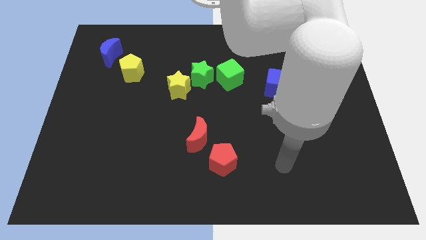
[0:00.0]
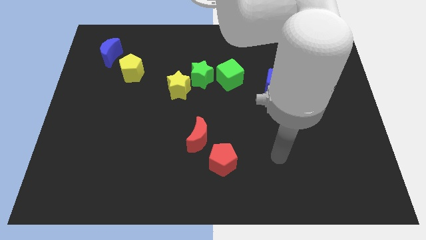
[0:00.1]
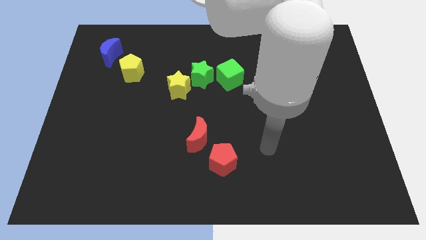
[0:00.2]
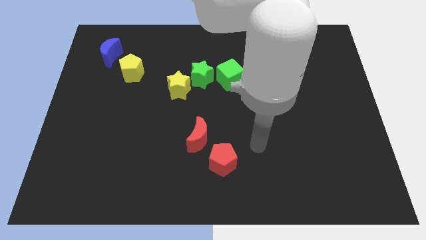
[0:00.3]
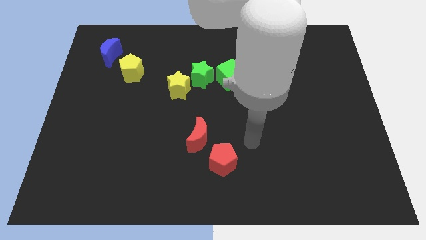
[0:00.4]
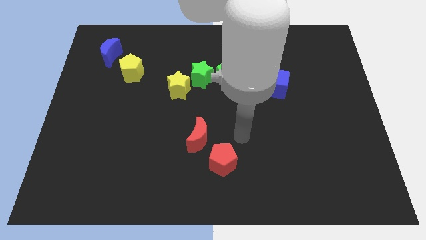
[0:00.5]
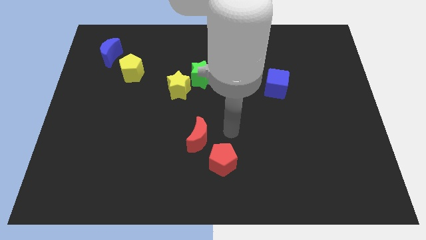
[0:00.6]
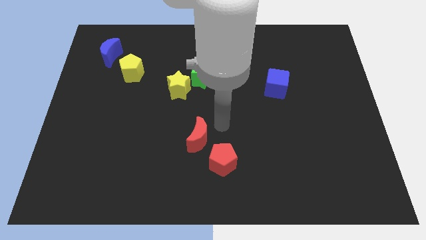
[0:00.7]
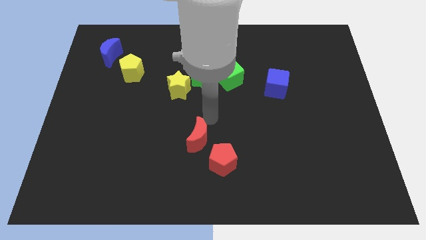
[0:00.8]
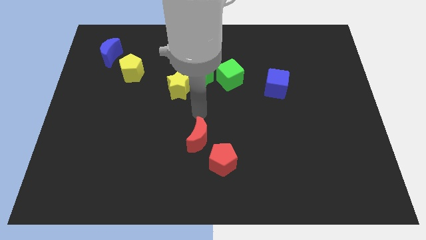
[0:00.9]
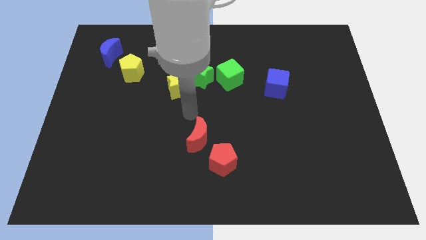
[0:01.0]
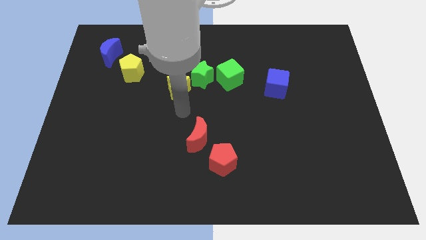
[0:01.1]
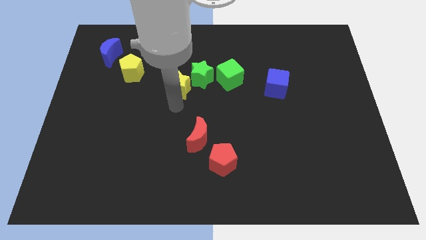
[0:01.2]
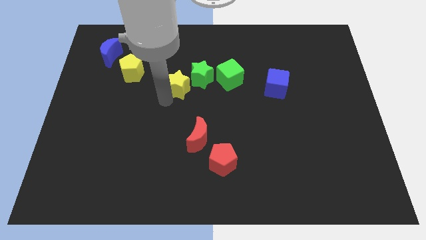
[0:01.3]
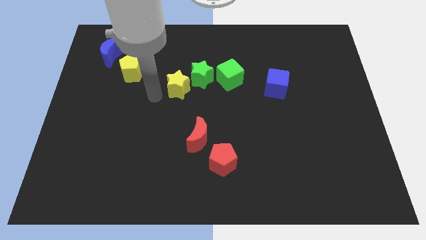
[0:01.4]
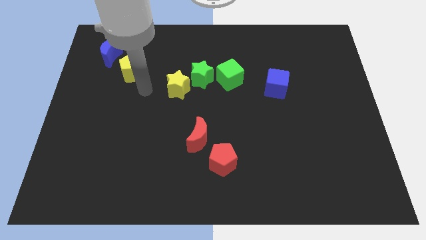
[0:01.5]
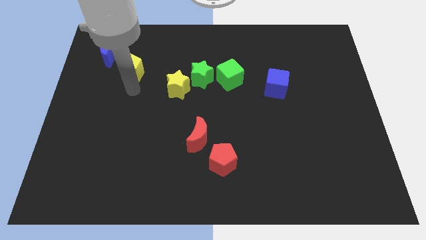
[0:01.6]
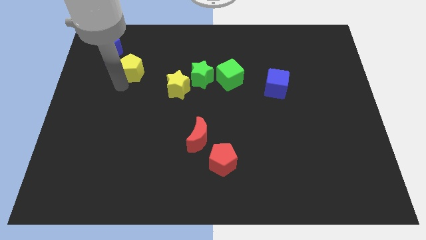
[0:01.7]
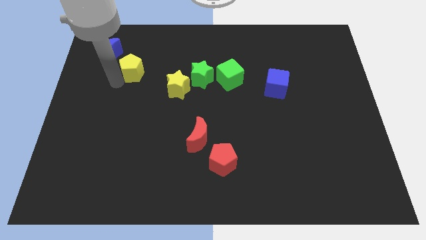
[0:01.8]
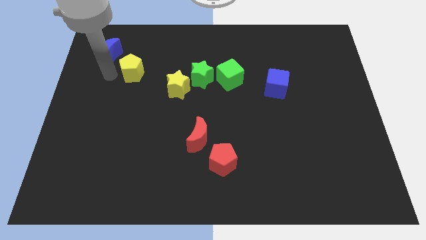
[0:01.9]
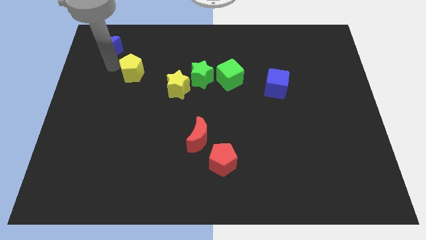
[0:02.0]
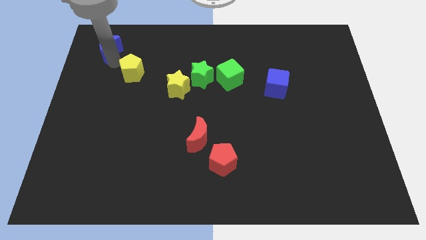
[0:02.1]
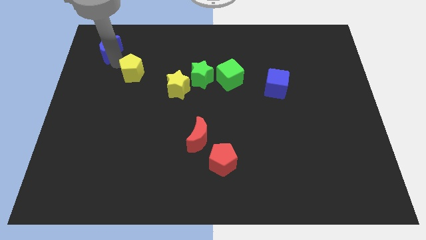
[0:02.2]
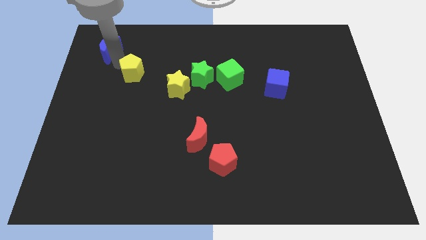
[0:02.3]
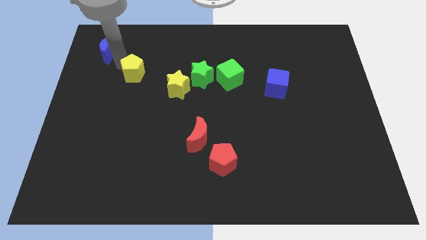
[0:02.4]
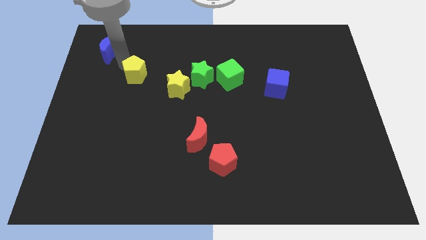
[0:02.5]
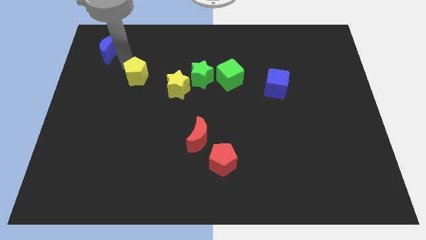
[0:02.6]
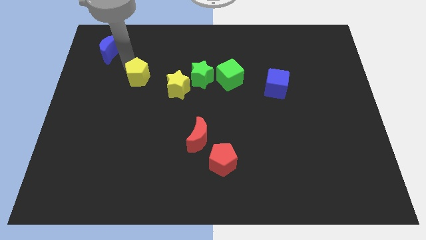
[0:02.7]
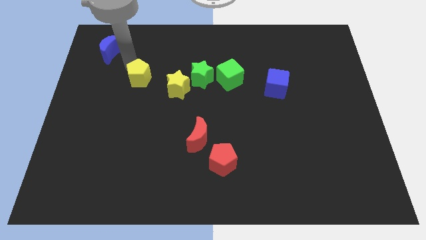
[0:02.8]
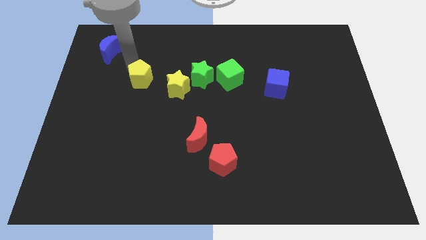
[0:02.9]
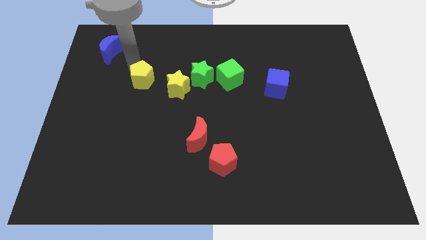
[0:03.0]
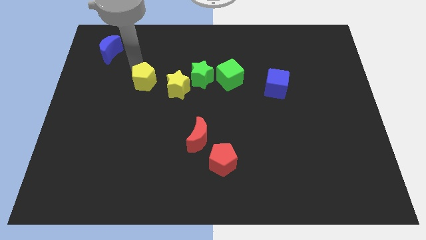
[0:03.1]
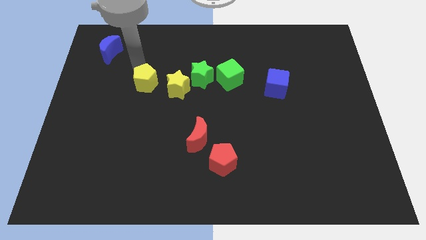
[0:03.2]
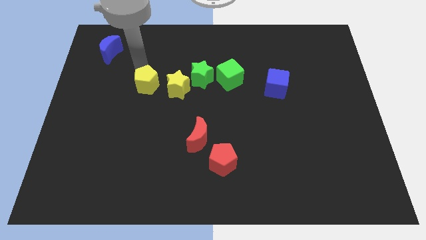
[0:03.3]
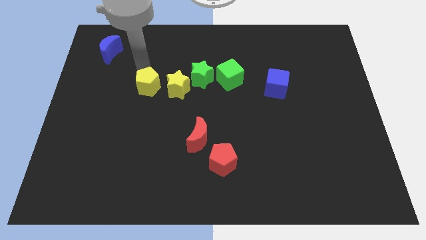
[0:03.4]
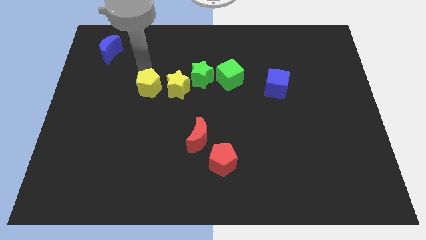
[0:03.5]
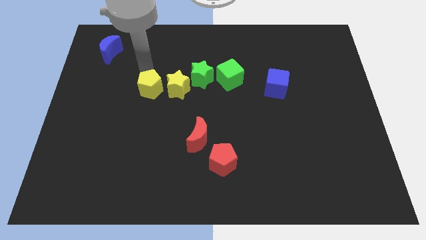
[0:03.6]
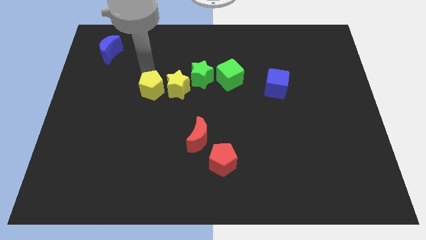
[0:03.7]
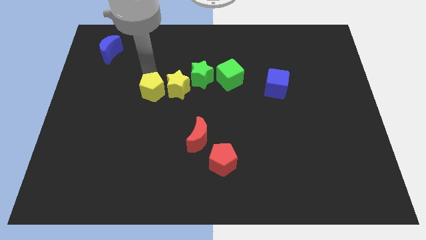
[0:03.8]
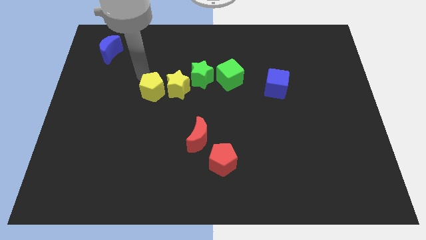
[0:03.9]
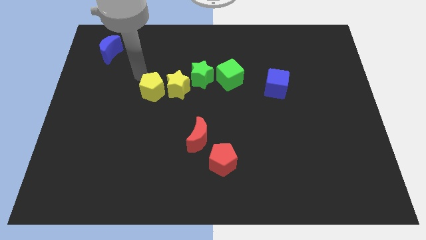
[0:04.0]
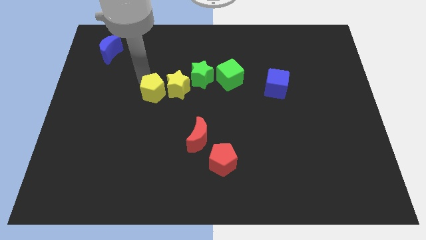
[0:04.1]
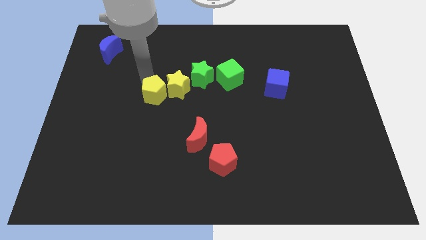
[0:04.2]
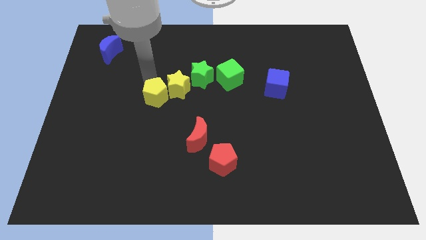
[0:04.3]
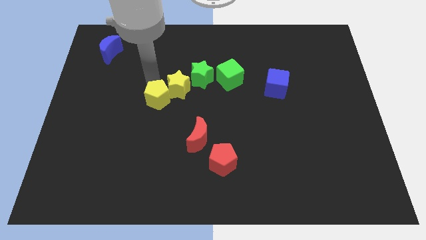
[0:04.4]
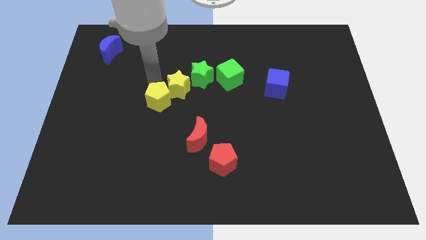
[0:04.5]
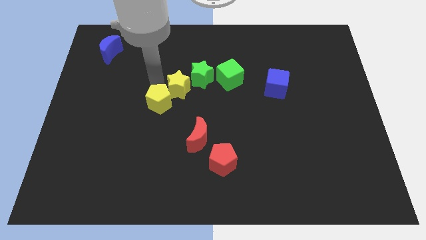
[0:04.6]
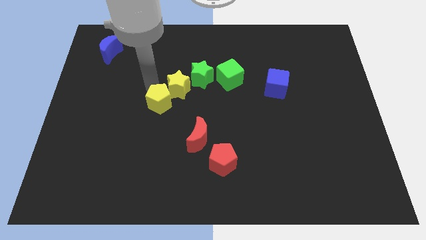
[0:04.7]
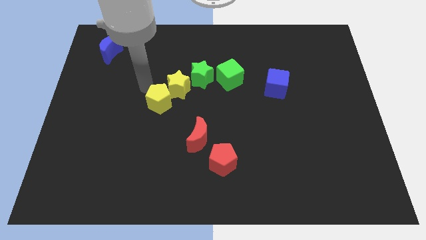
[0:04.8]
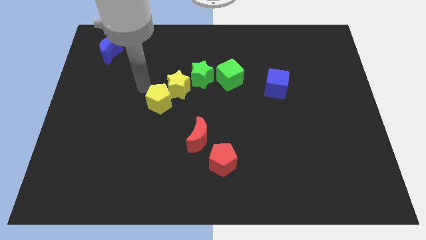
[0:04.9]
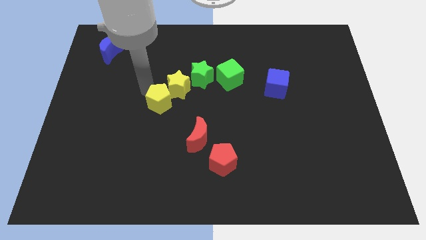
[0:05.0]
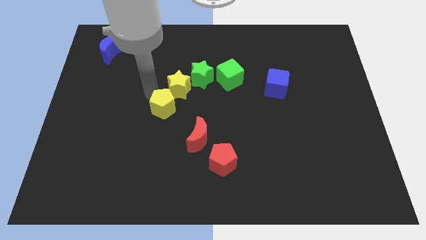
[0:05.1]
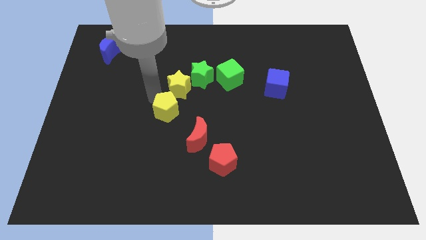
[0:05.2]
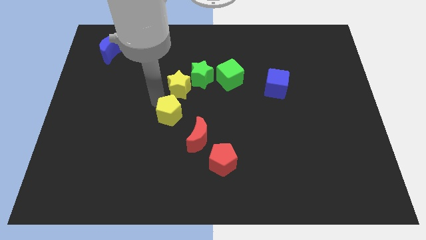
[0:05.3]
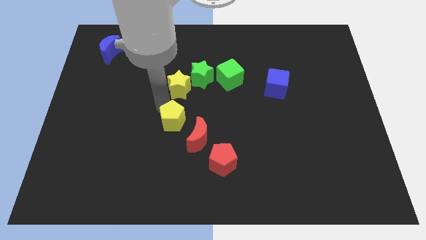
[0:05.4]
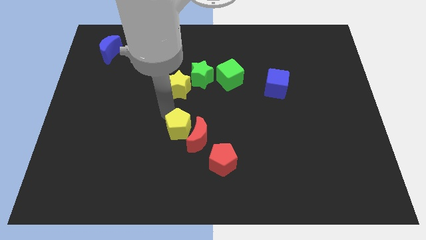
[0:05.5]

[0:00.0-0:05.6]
slide the yellow pentagon close to the red moon

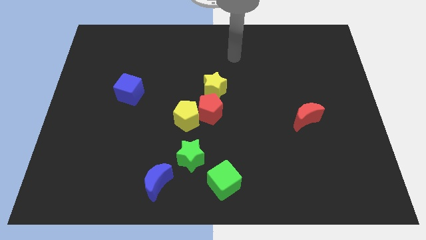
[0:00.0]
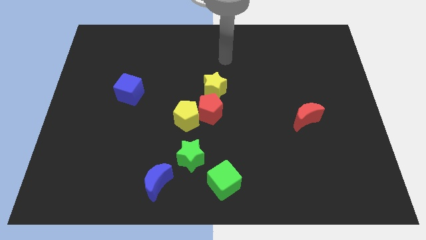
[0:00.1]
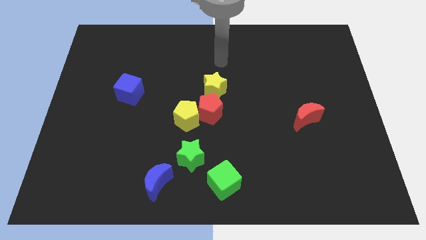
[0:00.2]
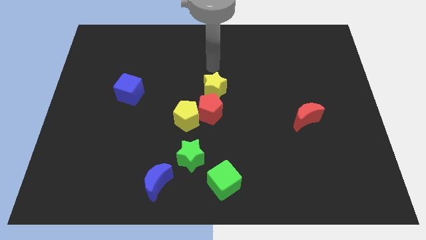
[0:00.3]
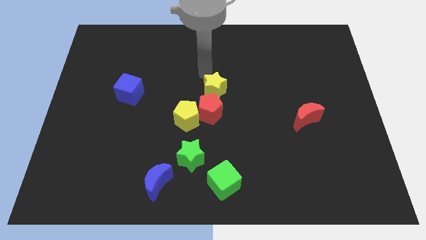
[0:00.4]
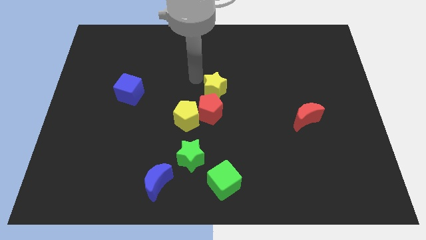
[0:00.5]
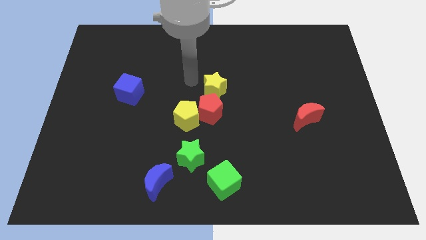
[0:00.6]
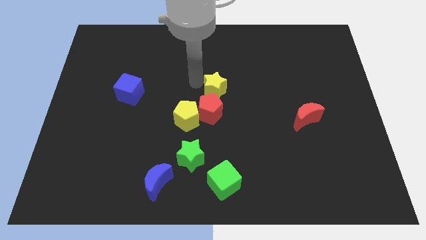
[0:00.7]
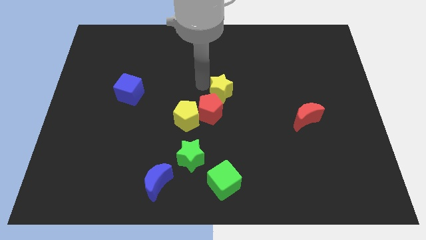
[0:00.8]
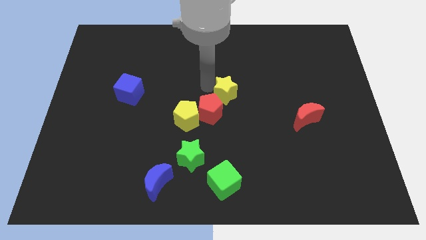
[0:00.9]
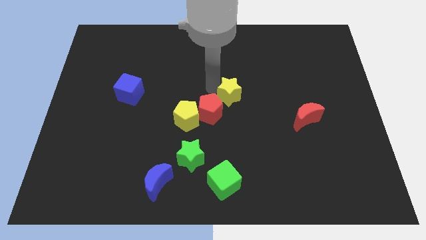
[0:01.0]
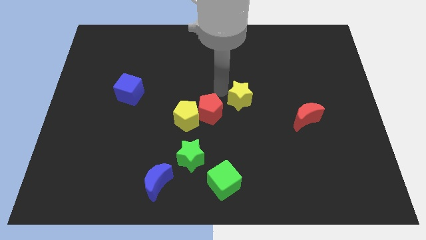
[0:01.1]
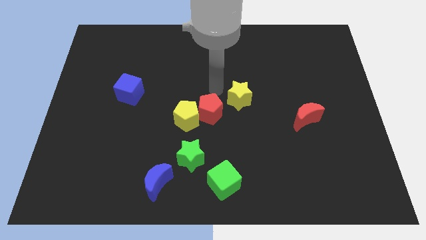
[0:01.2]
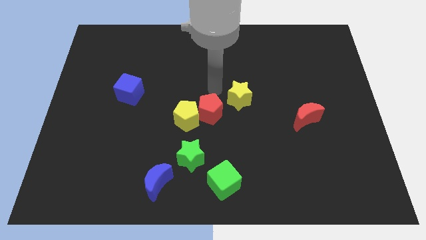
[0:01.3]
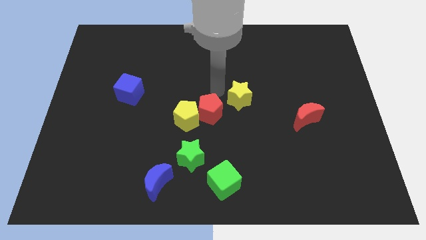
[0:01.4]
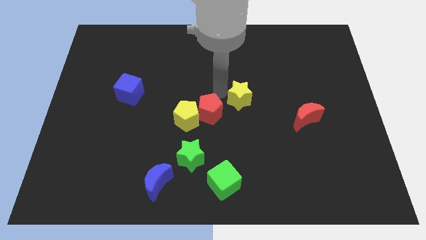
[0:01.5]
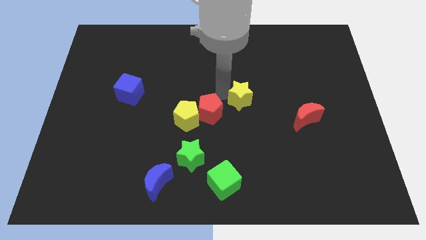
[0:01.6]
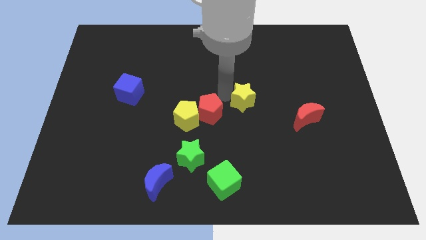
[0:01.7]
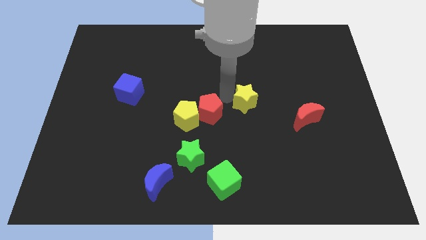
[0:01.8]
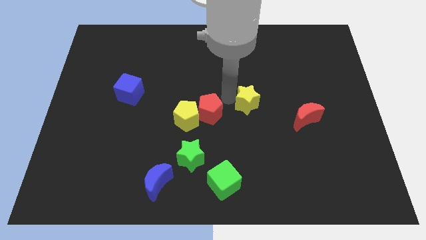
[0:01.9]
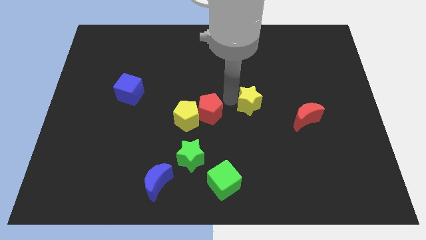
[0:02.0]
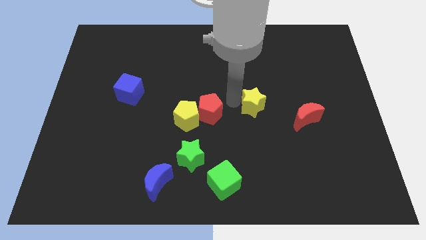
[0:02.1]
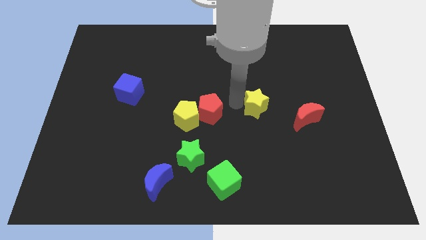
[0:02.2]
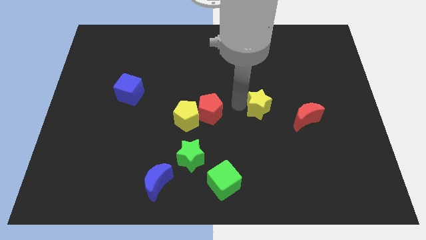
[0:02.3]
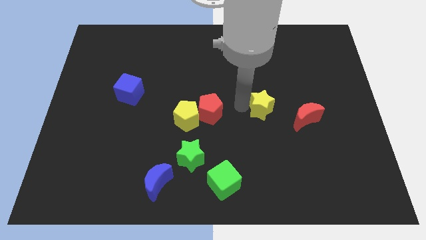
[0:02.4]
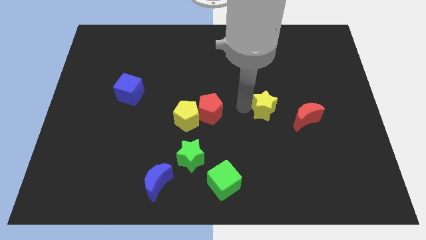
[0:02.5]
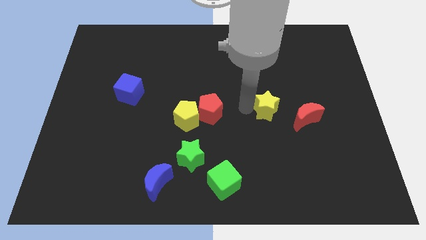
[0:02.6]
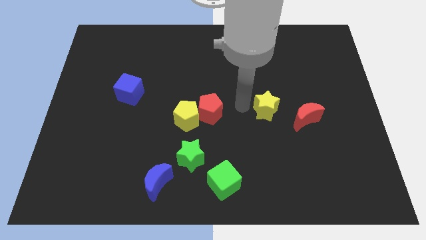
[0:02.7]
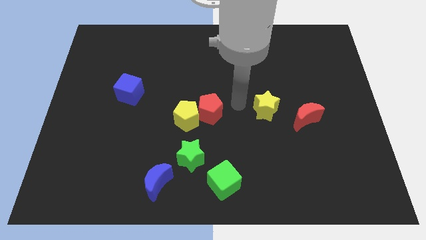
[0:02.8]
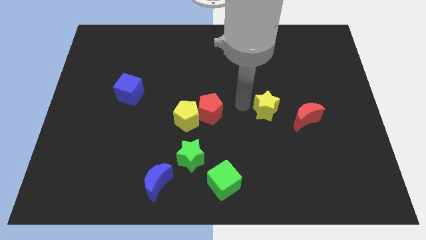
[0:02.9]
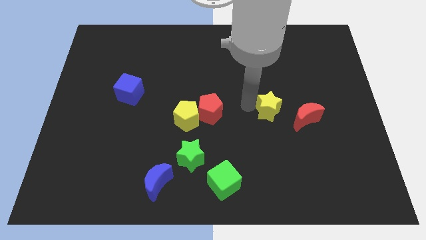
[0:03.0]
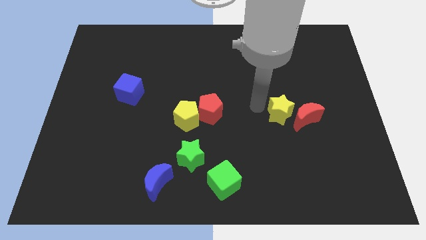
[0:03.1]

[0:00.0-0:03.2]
put the yellow star to the red moon
